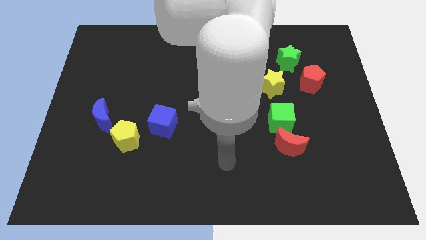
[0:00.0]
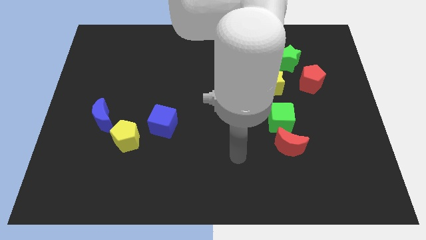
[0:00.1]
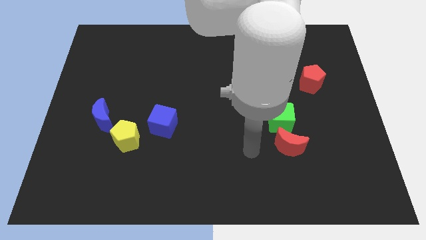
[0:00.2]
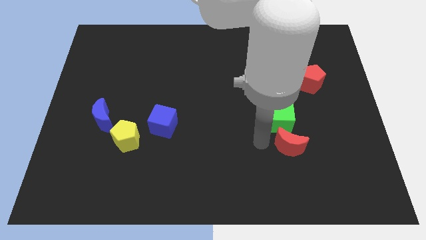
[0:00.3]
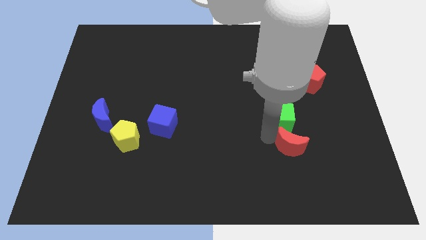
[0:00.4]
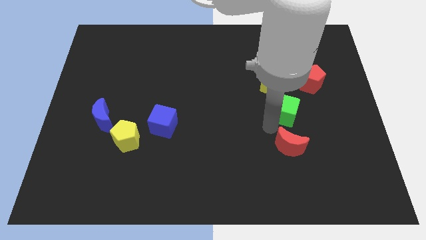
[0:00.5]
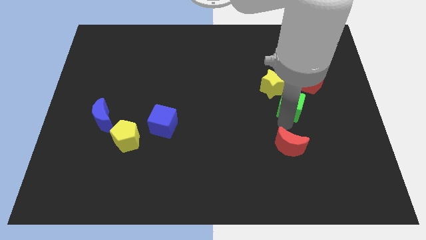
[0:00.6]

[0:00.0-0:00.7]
move the red moon away from the green cube

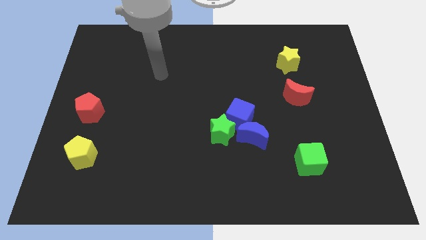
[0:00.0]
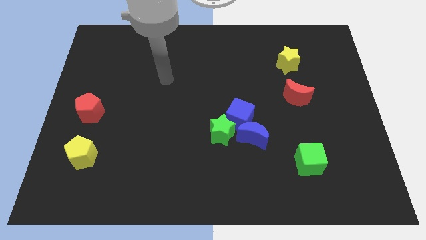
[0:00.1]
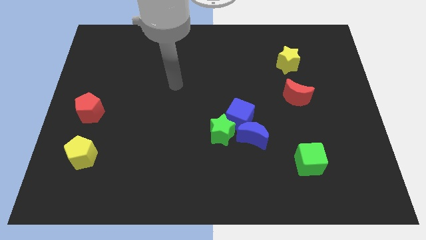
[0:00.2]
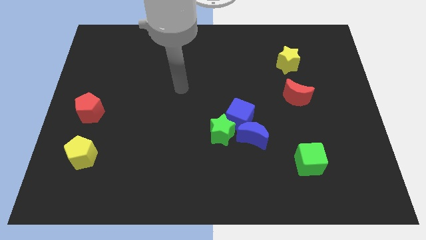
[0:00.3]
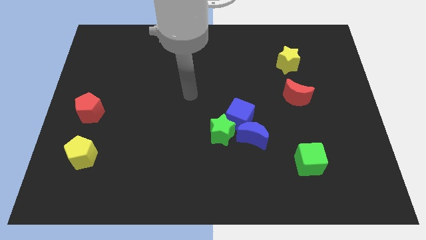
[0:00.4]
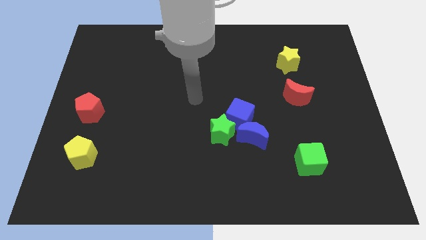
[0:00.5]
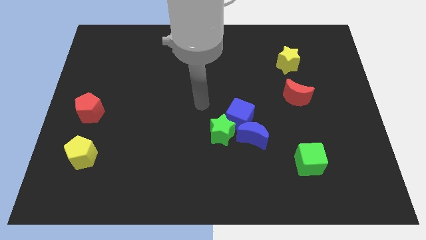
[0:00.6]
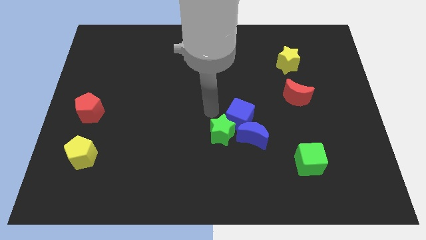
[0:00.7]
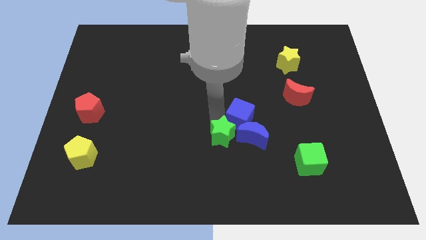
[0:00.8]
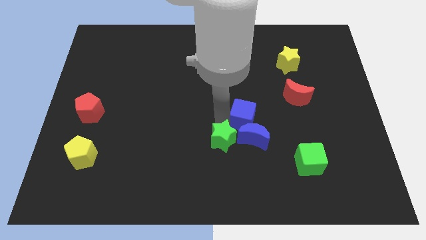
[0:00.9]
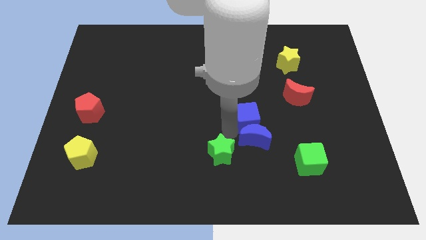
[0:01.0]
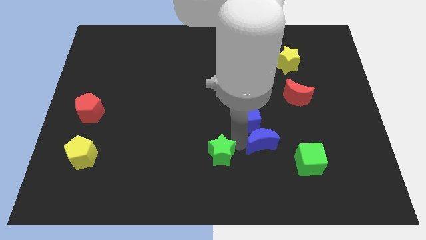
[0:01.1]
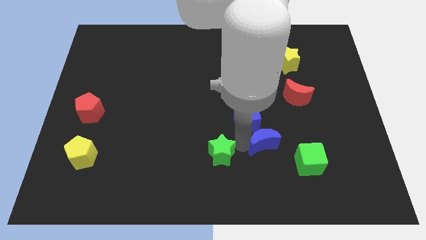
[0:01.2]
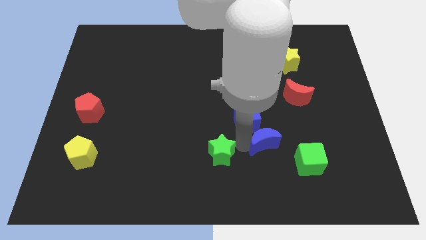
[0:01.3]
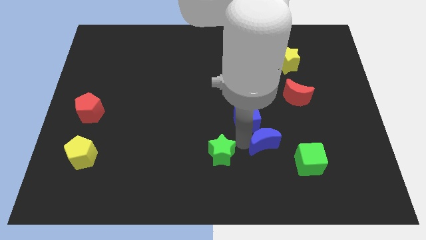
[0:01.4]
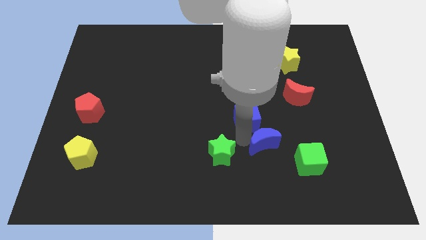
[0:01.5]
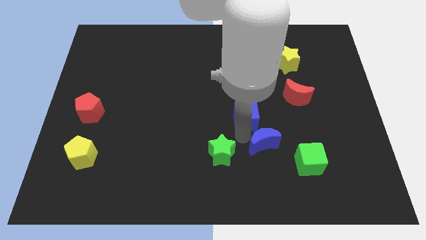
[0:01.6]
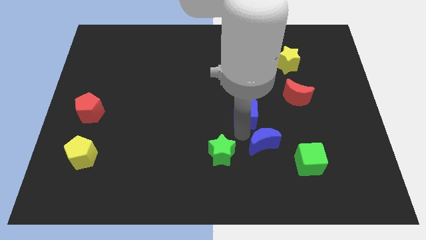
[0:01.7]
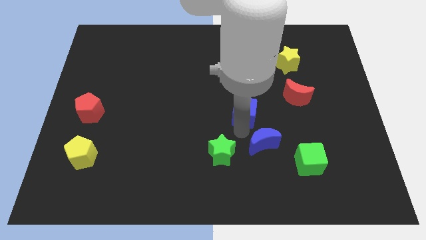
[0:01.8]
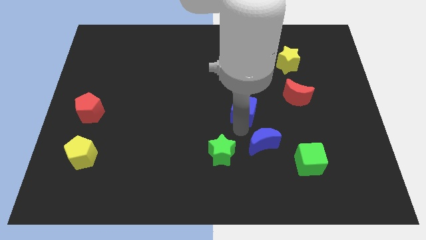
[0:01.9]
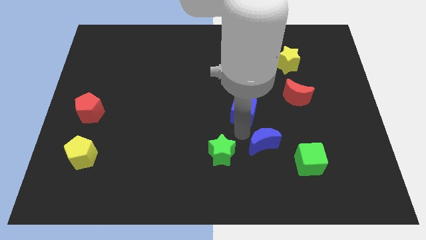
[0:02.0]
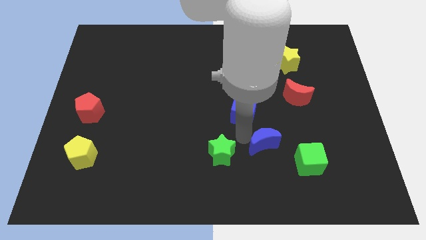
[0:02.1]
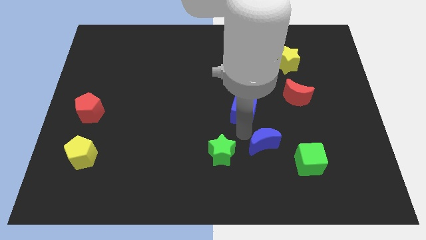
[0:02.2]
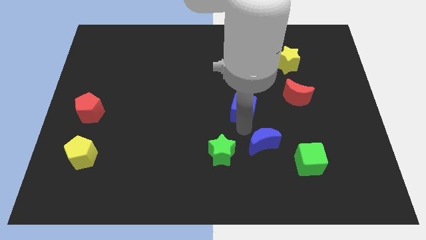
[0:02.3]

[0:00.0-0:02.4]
move the blue cube away from the blue moon and green star

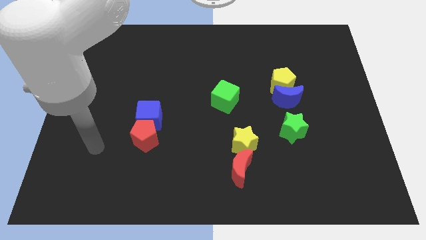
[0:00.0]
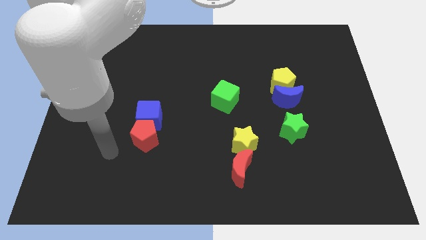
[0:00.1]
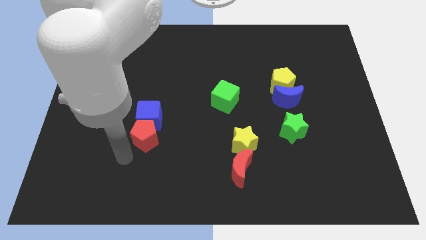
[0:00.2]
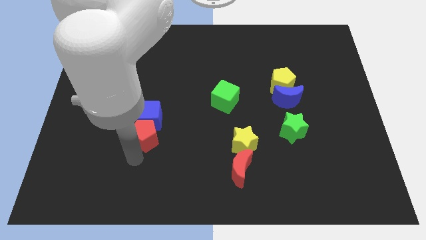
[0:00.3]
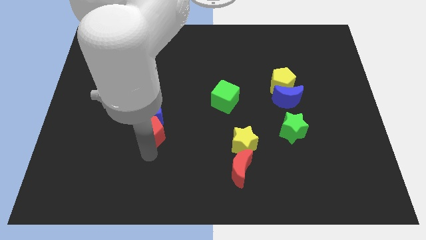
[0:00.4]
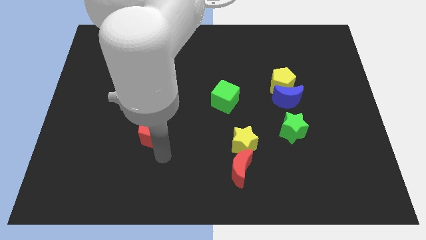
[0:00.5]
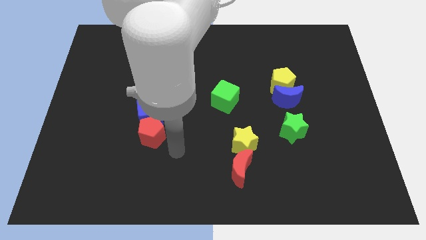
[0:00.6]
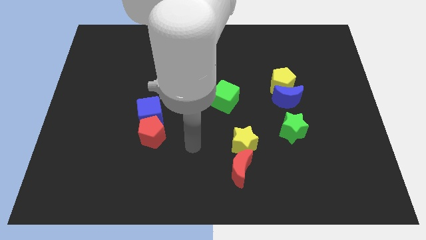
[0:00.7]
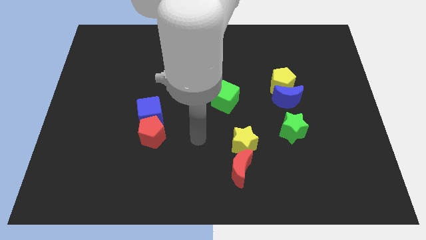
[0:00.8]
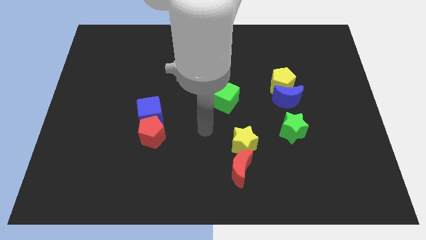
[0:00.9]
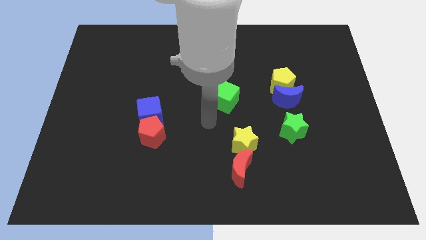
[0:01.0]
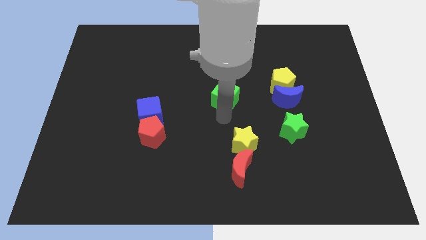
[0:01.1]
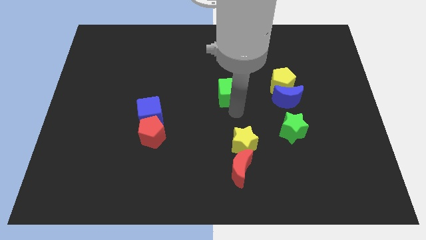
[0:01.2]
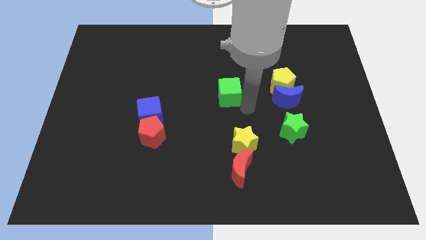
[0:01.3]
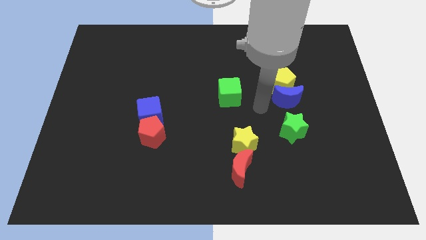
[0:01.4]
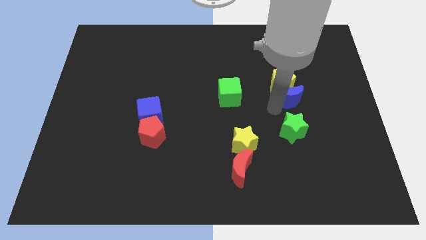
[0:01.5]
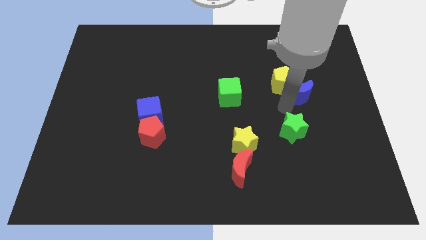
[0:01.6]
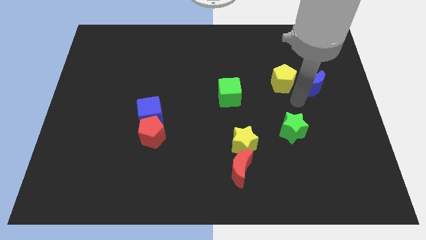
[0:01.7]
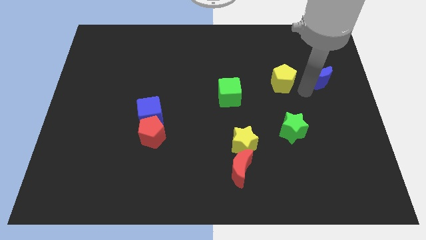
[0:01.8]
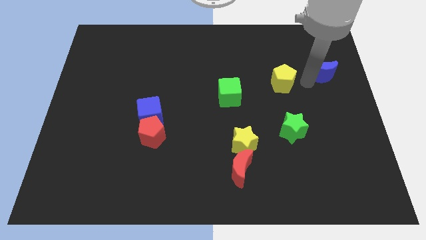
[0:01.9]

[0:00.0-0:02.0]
pull the yellow pentagon apart from the blue moon

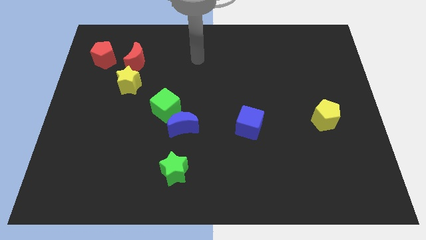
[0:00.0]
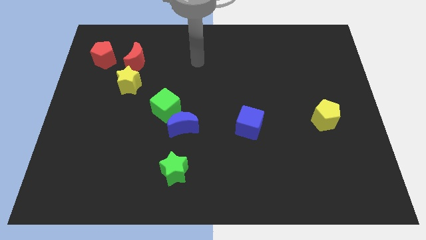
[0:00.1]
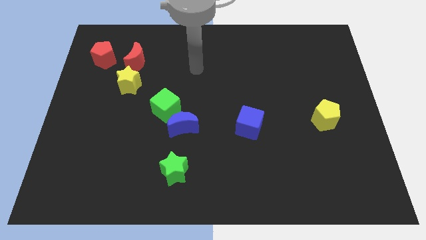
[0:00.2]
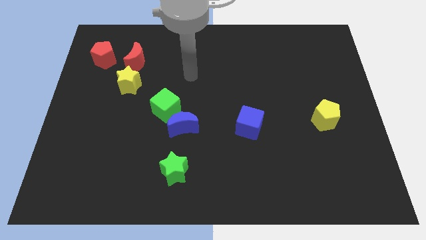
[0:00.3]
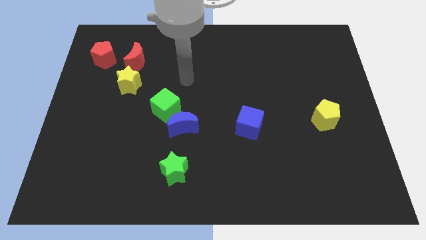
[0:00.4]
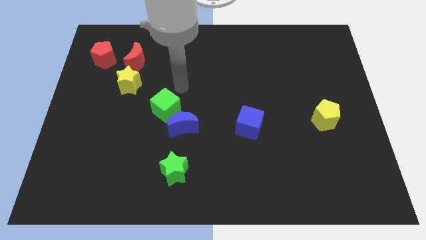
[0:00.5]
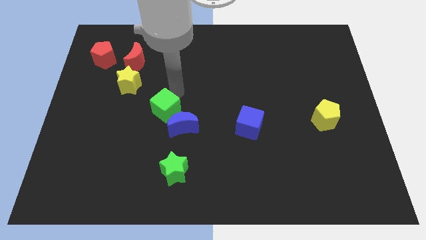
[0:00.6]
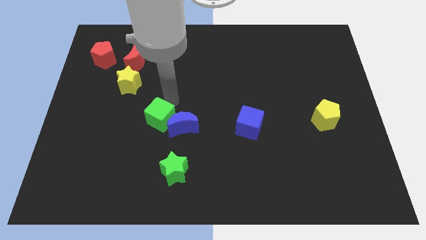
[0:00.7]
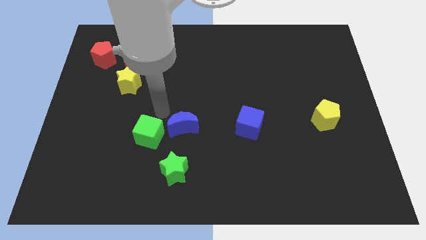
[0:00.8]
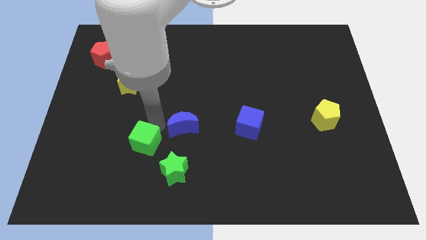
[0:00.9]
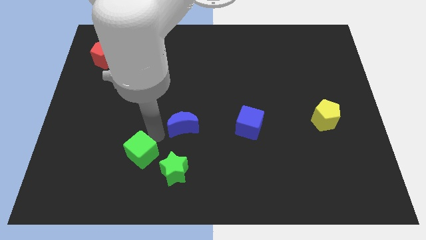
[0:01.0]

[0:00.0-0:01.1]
move the blue moon away from the green cube

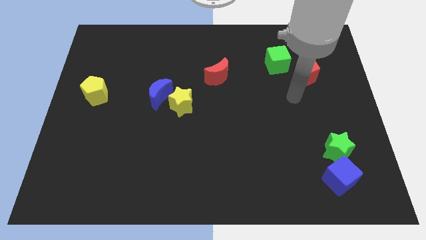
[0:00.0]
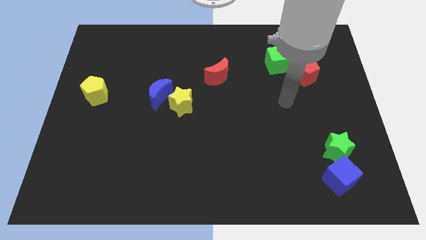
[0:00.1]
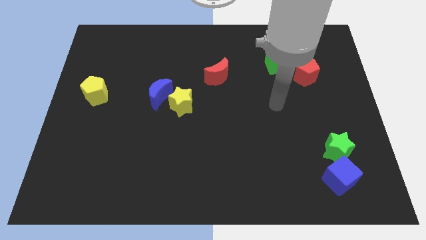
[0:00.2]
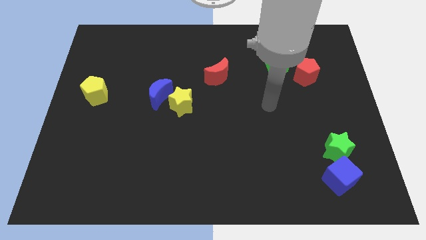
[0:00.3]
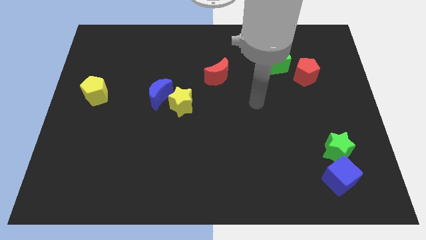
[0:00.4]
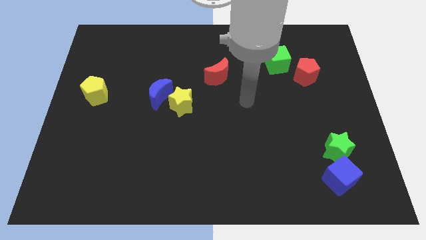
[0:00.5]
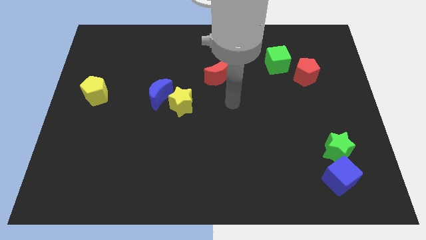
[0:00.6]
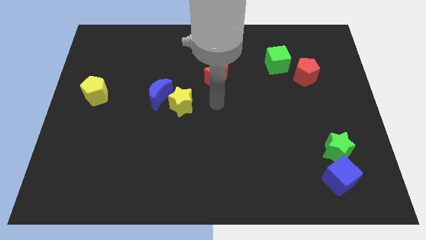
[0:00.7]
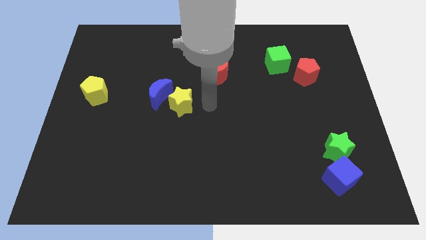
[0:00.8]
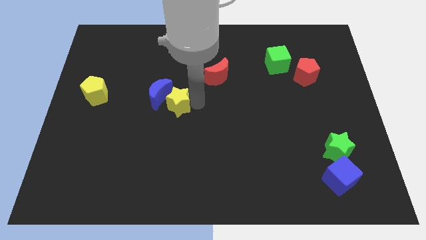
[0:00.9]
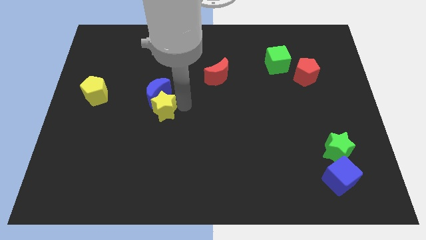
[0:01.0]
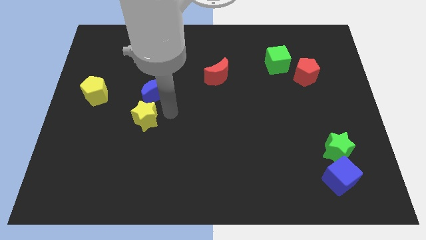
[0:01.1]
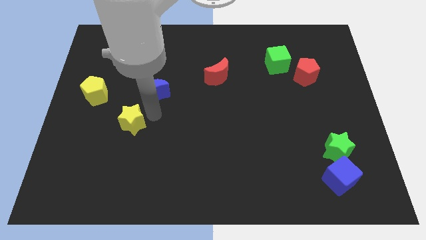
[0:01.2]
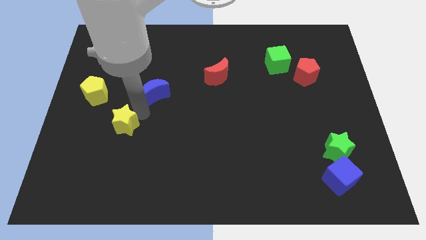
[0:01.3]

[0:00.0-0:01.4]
separate the blue moon from the yellow star

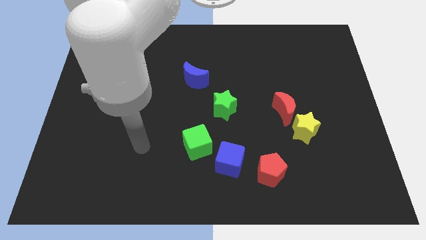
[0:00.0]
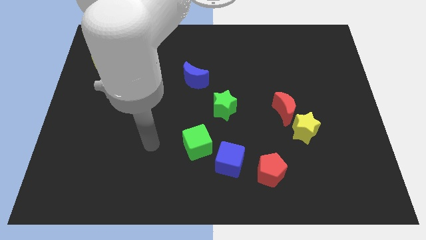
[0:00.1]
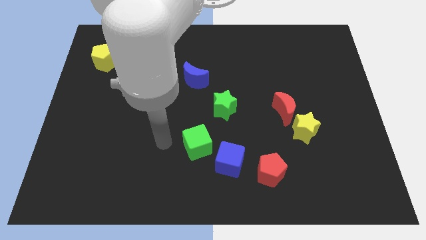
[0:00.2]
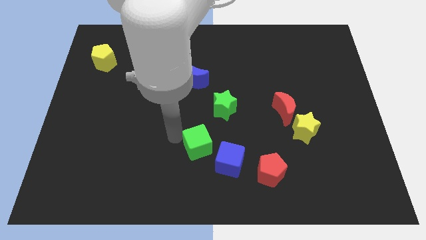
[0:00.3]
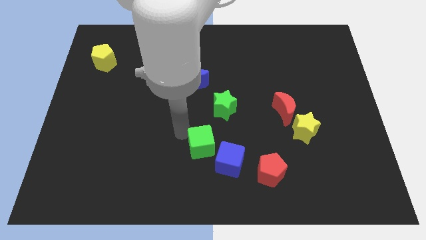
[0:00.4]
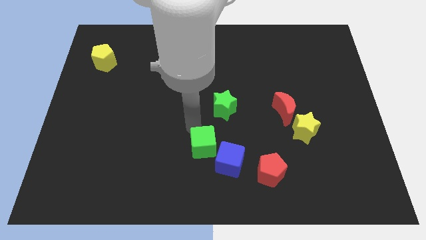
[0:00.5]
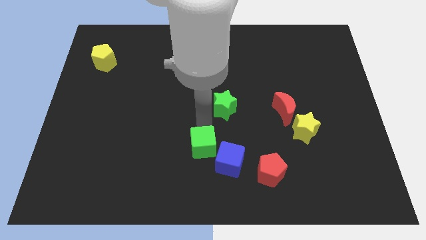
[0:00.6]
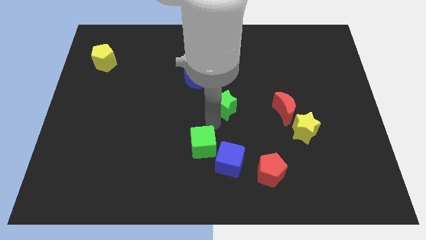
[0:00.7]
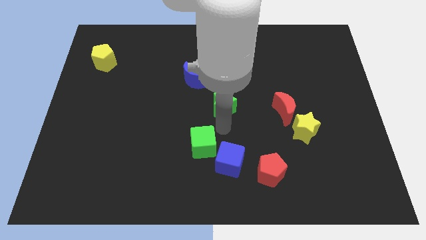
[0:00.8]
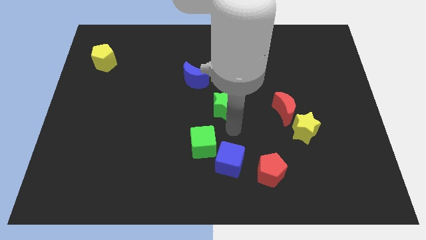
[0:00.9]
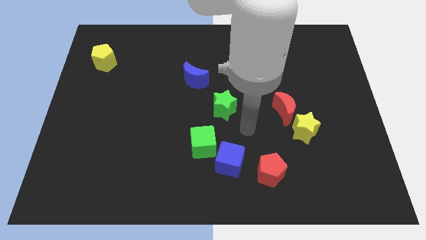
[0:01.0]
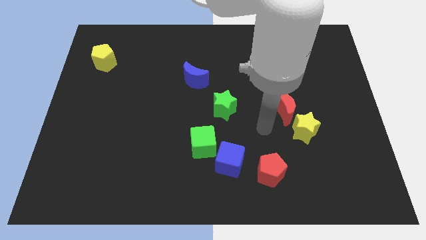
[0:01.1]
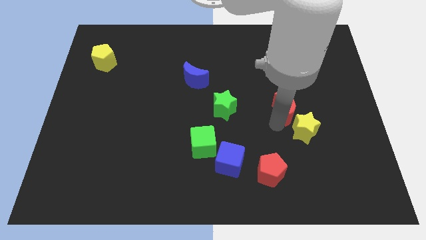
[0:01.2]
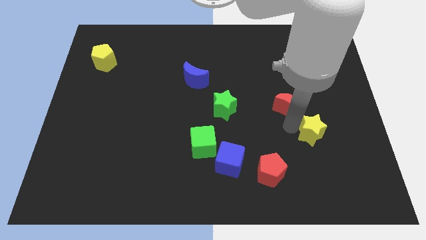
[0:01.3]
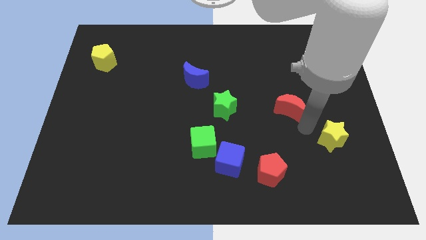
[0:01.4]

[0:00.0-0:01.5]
move the red moon away from the yellow star

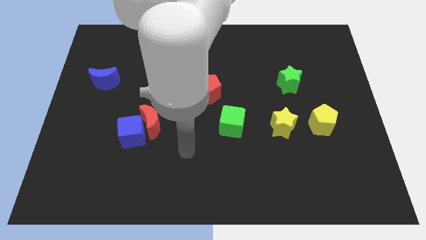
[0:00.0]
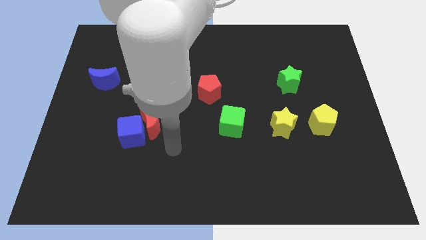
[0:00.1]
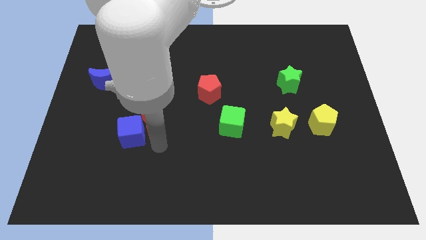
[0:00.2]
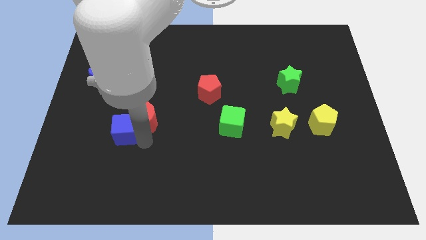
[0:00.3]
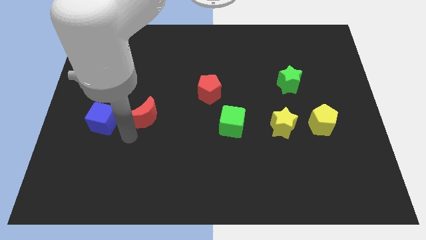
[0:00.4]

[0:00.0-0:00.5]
separate the red moon from the blue cube
